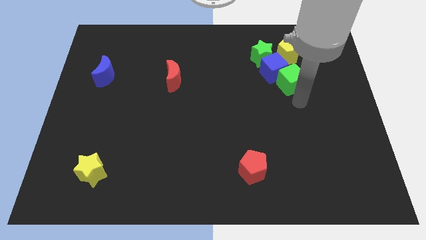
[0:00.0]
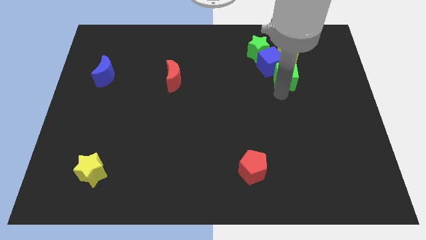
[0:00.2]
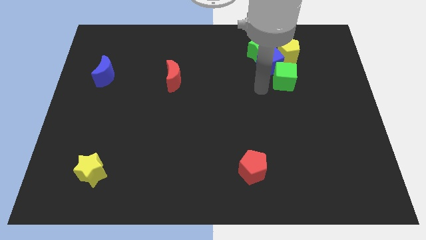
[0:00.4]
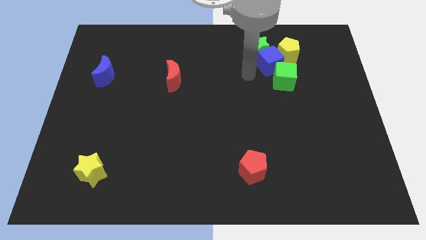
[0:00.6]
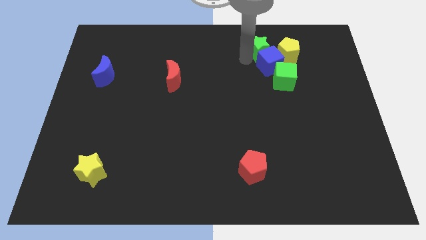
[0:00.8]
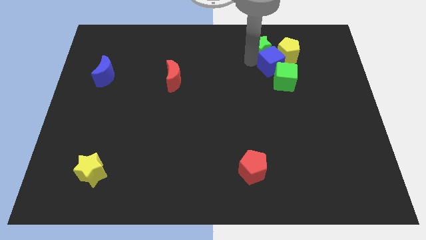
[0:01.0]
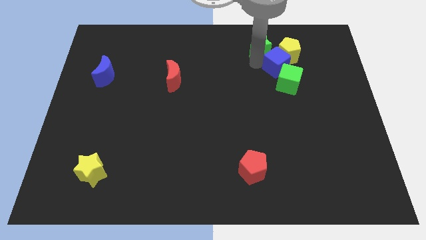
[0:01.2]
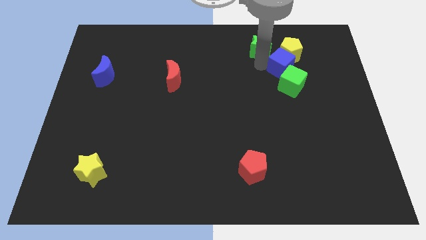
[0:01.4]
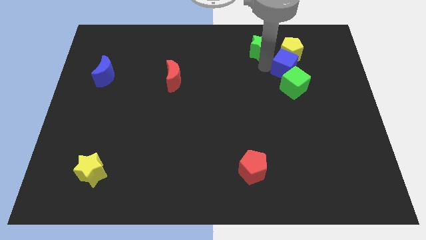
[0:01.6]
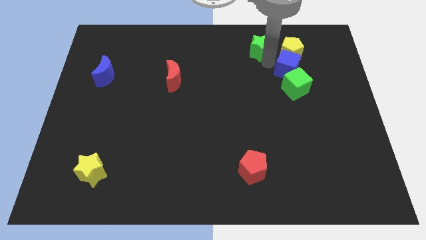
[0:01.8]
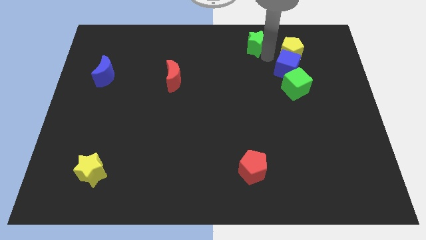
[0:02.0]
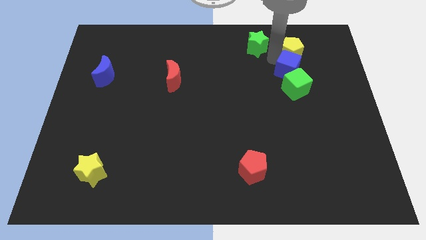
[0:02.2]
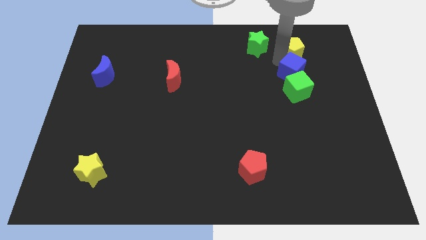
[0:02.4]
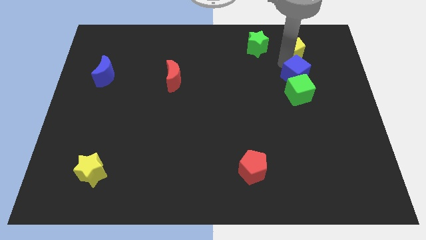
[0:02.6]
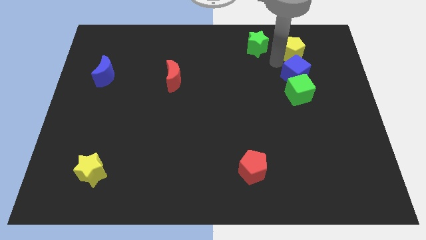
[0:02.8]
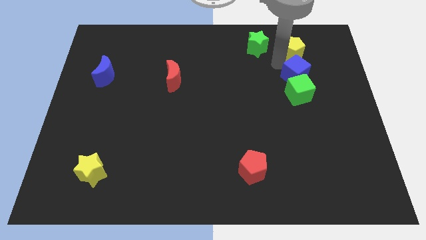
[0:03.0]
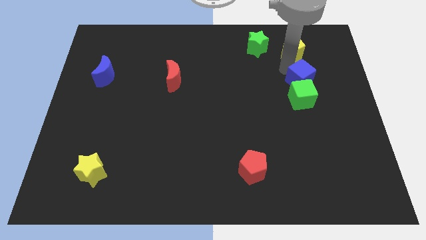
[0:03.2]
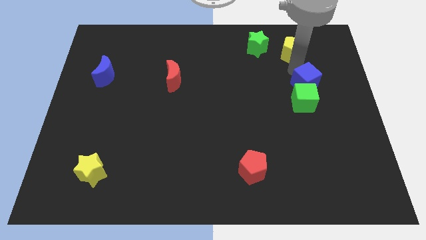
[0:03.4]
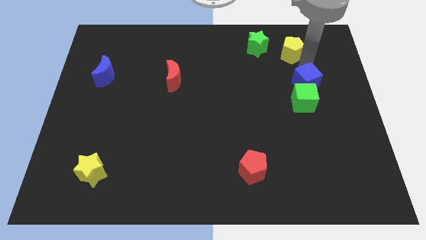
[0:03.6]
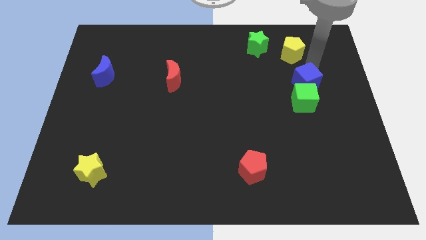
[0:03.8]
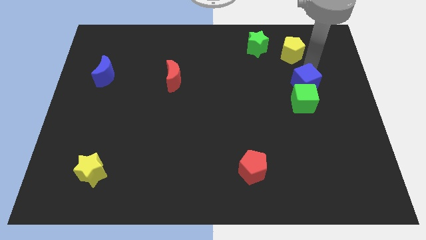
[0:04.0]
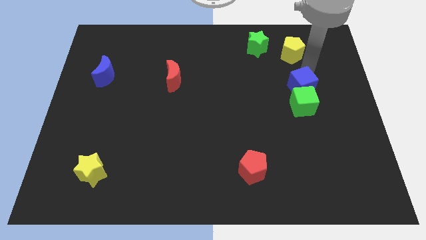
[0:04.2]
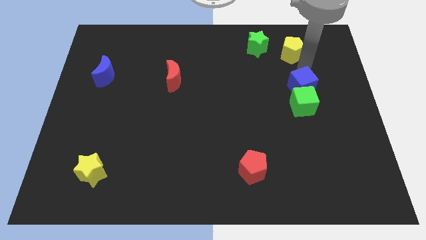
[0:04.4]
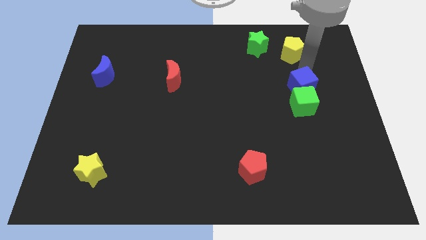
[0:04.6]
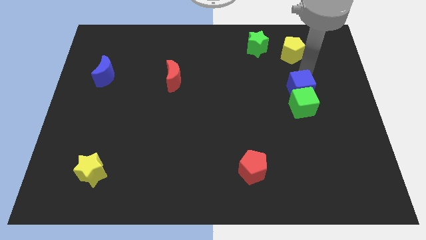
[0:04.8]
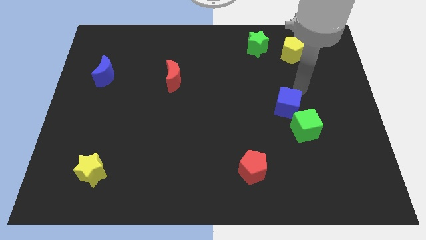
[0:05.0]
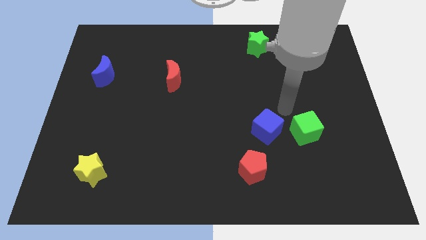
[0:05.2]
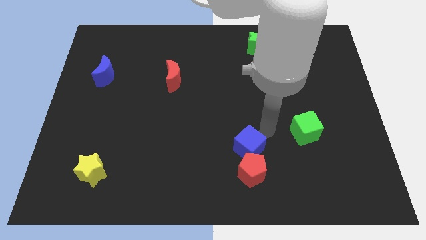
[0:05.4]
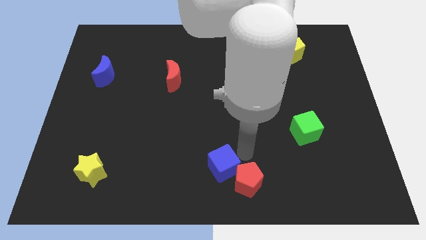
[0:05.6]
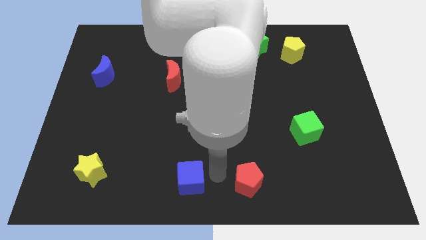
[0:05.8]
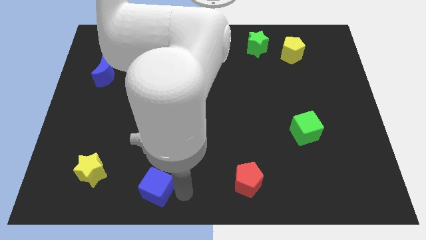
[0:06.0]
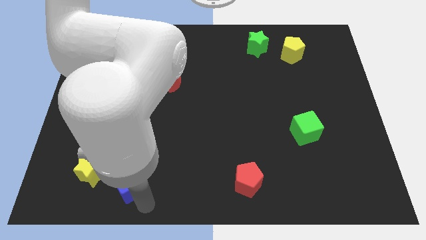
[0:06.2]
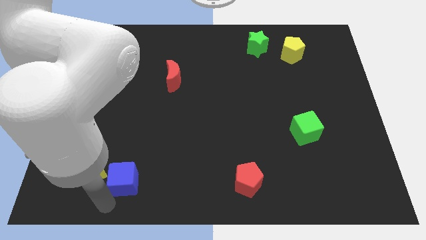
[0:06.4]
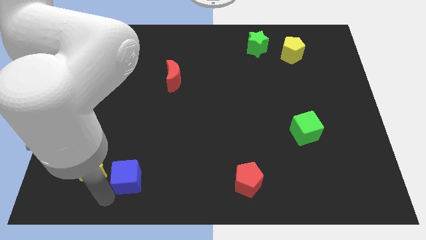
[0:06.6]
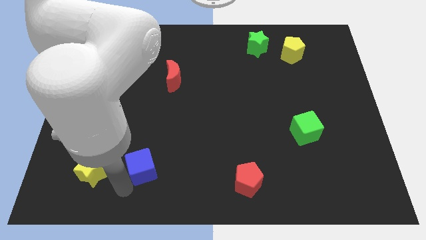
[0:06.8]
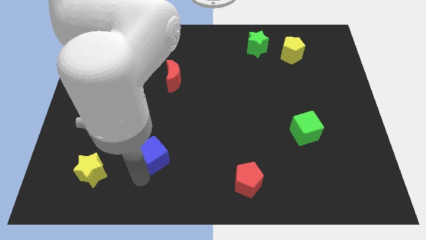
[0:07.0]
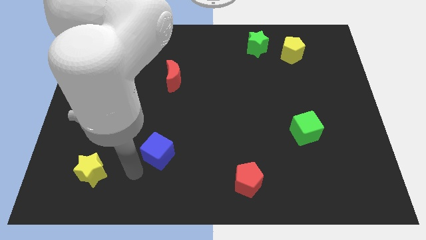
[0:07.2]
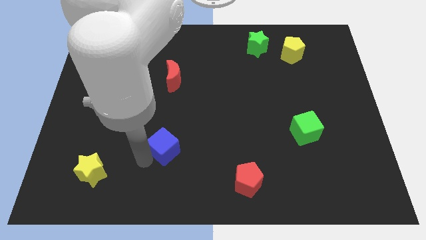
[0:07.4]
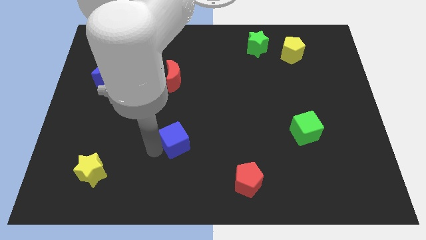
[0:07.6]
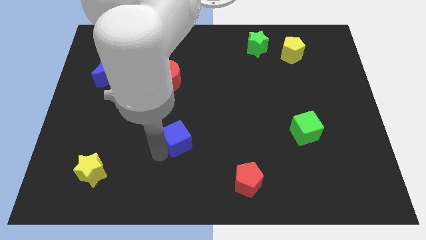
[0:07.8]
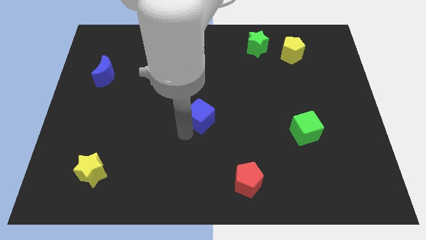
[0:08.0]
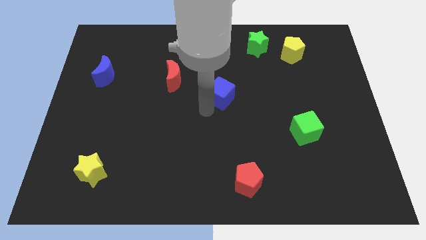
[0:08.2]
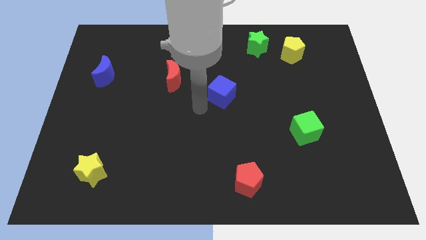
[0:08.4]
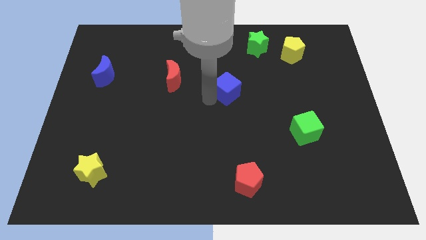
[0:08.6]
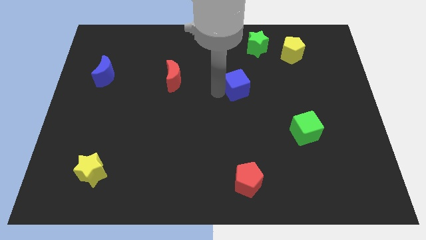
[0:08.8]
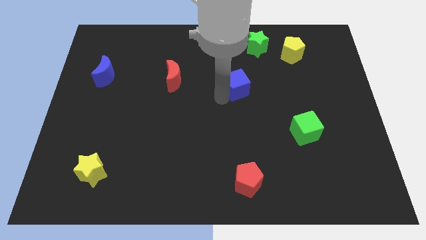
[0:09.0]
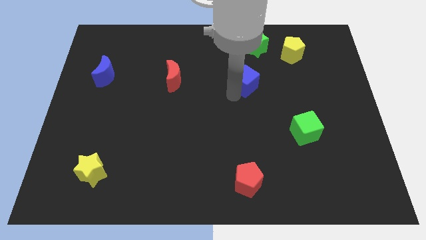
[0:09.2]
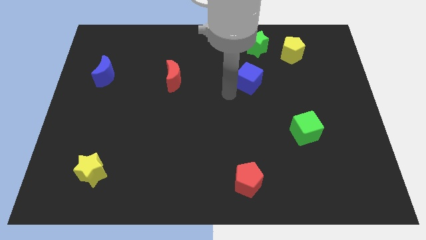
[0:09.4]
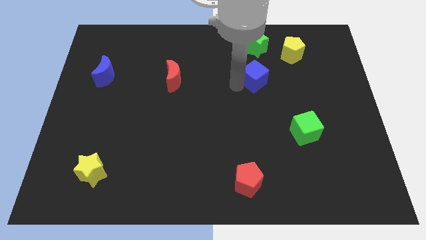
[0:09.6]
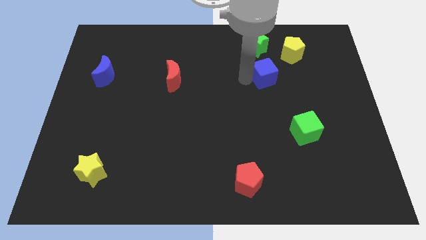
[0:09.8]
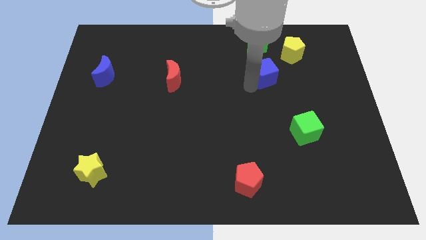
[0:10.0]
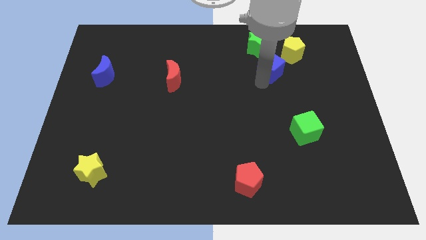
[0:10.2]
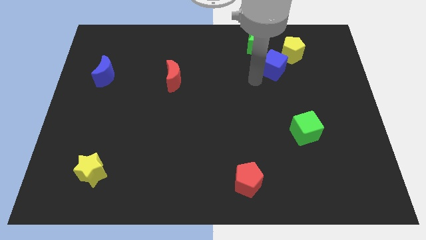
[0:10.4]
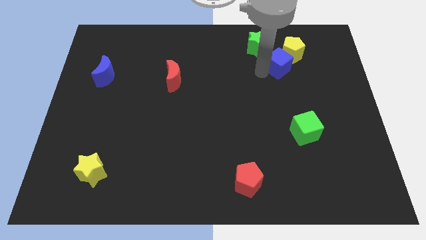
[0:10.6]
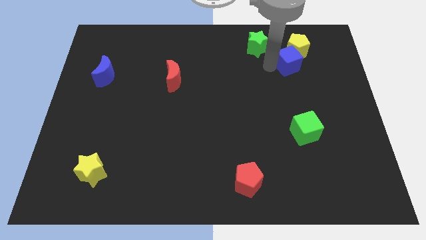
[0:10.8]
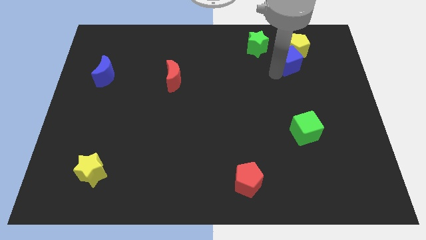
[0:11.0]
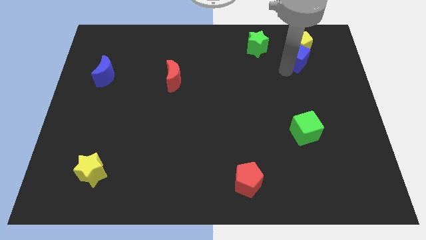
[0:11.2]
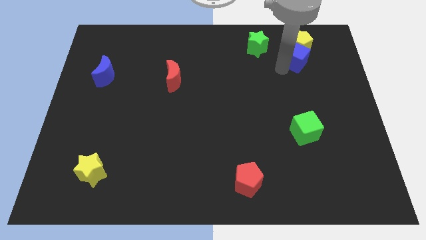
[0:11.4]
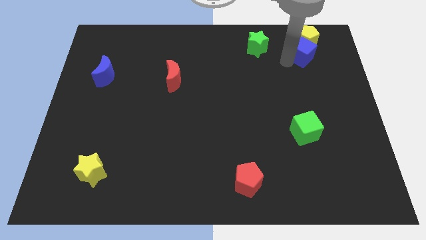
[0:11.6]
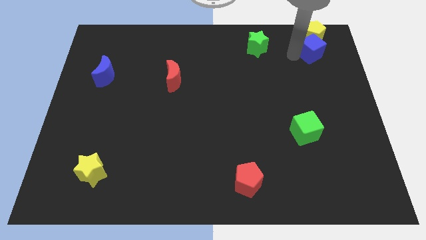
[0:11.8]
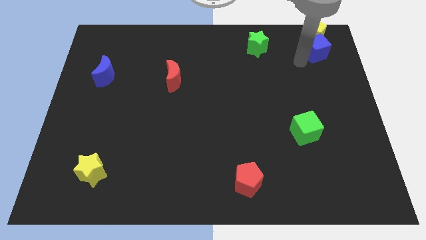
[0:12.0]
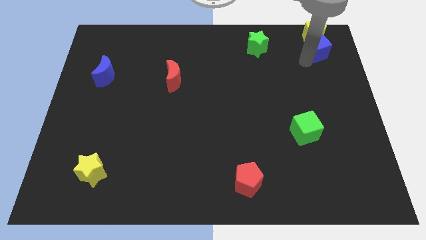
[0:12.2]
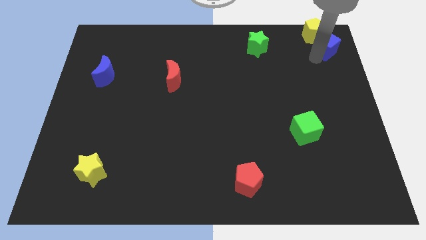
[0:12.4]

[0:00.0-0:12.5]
slide the blue cube to the upper right corner
